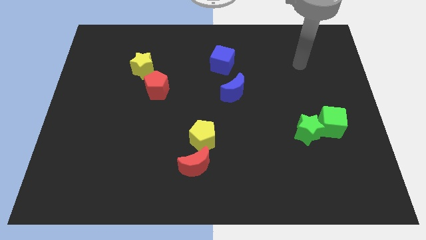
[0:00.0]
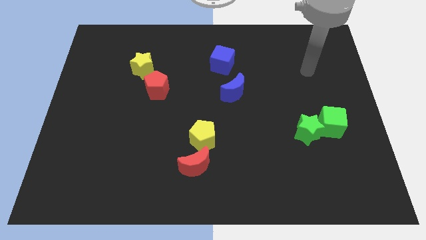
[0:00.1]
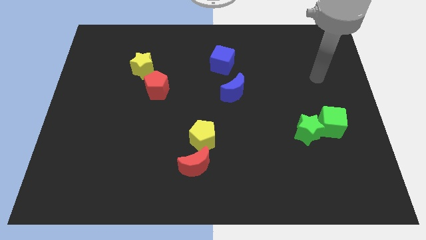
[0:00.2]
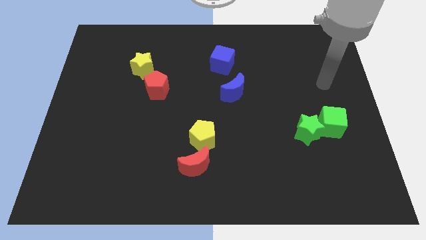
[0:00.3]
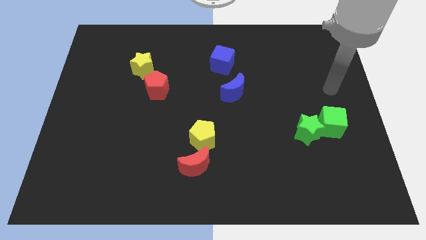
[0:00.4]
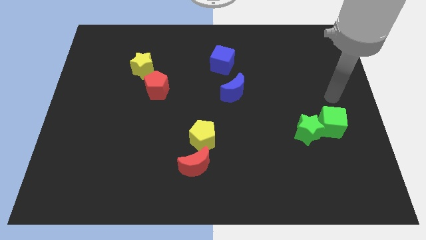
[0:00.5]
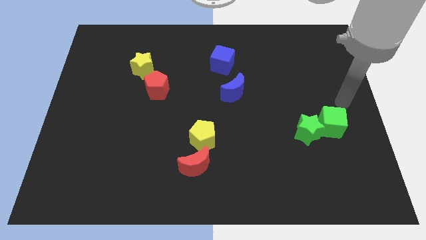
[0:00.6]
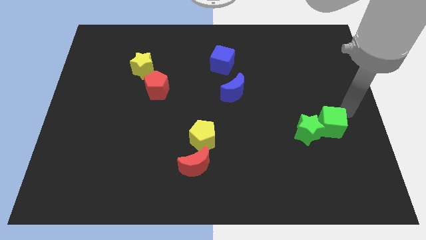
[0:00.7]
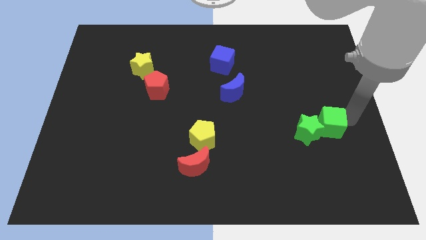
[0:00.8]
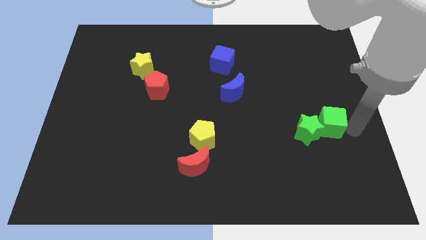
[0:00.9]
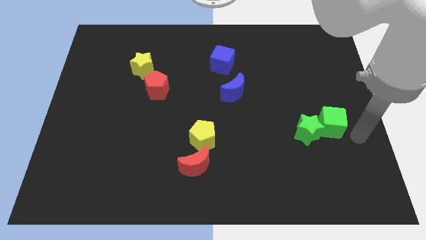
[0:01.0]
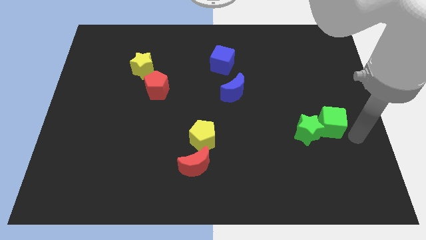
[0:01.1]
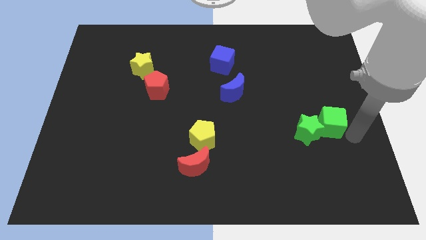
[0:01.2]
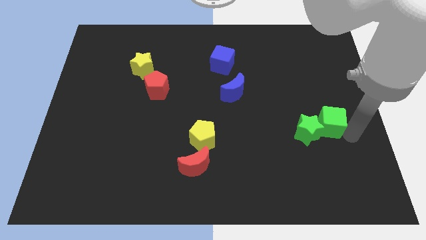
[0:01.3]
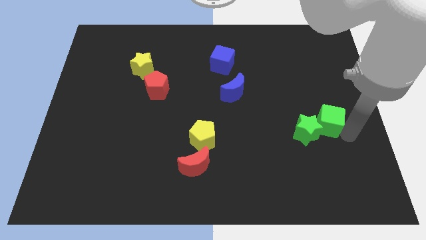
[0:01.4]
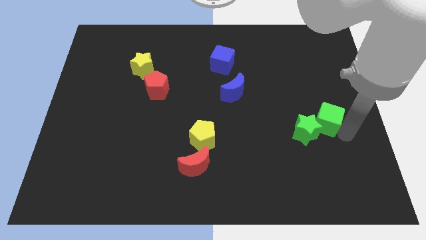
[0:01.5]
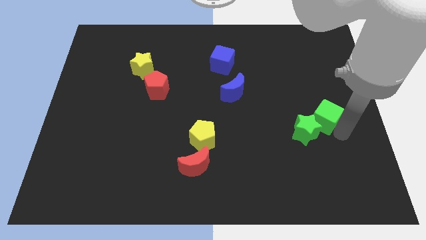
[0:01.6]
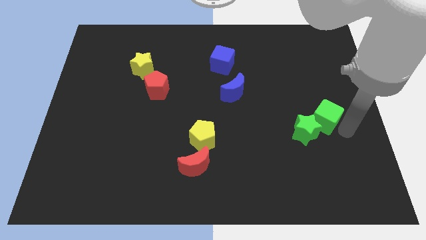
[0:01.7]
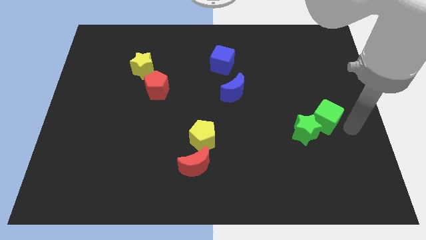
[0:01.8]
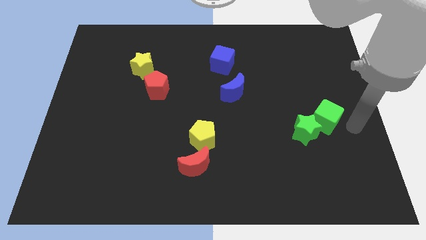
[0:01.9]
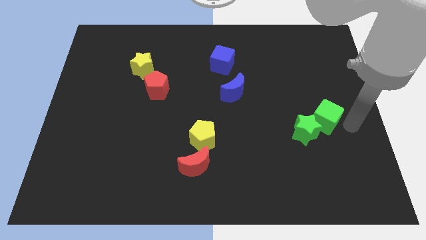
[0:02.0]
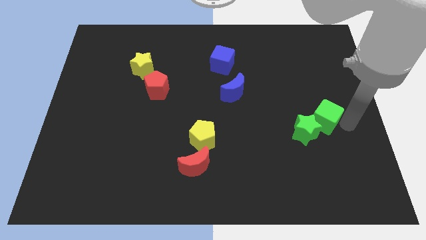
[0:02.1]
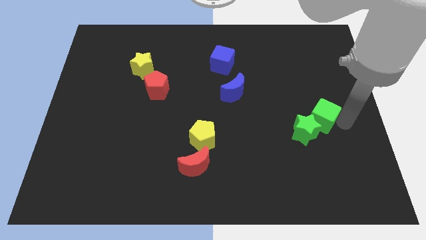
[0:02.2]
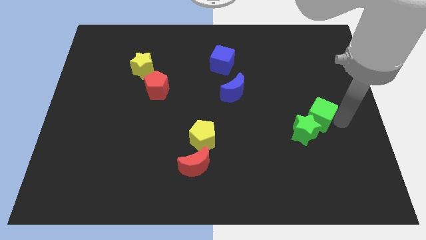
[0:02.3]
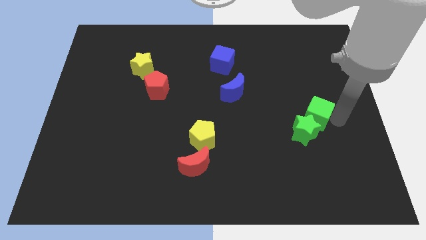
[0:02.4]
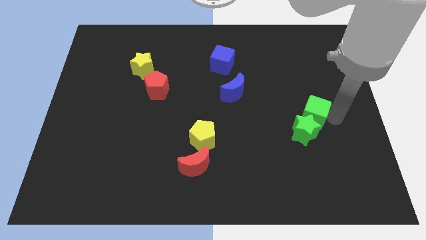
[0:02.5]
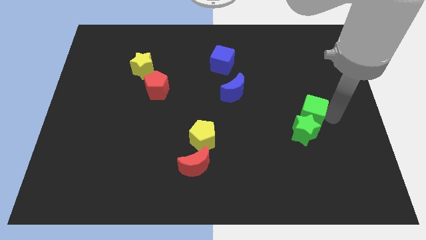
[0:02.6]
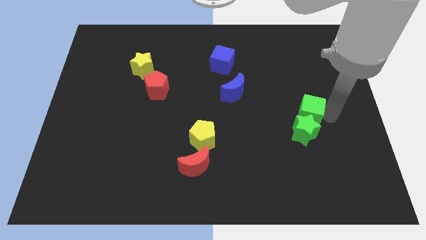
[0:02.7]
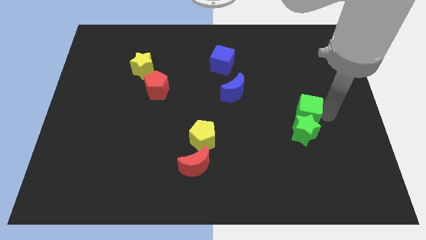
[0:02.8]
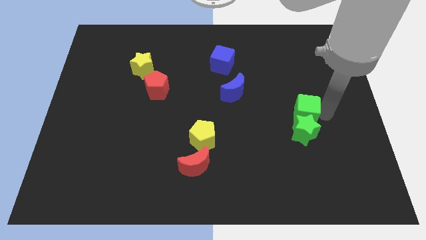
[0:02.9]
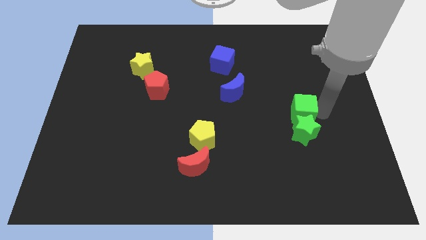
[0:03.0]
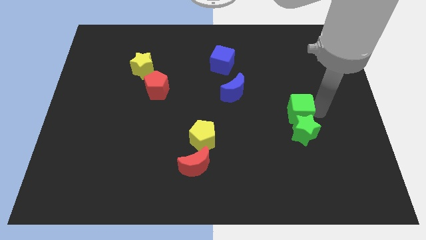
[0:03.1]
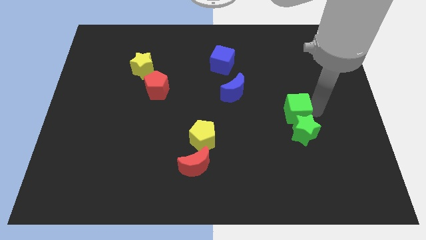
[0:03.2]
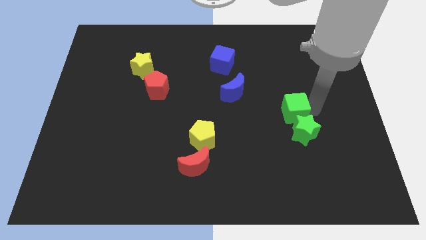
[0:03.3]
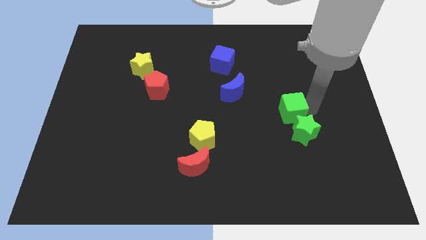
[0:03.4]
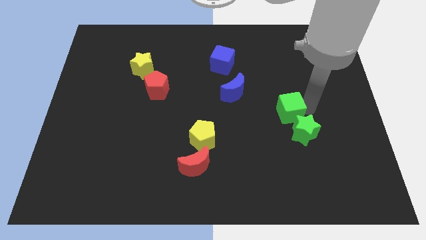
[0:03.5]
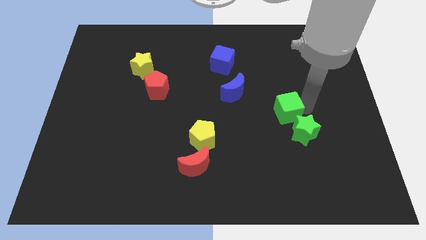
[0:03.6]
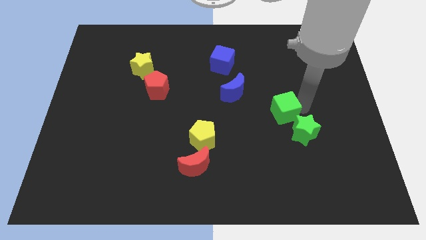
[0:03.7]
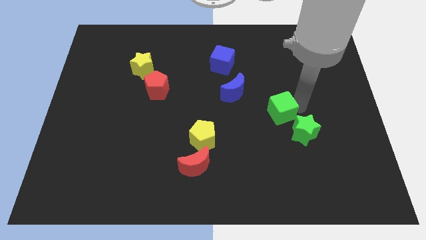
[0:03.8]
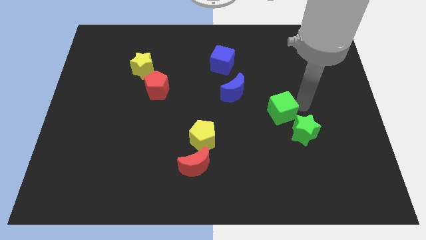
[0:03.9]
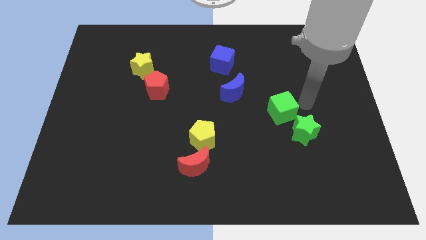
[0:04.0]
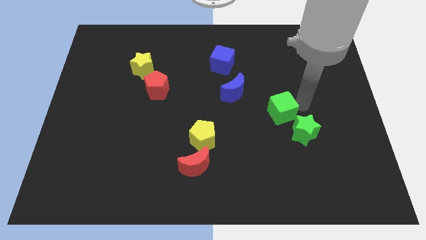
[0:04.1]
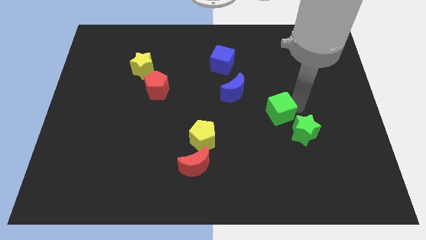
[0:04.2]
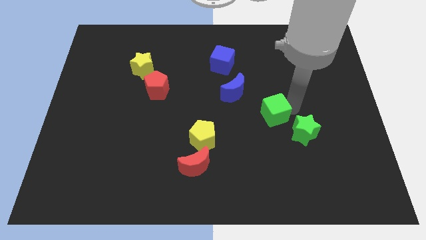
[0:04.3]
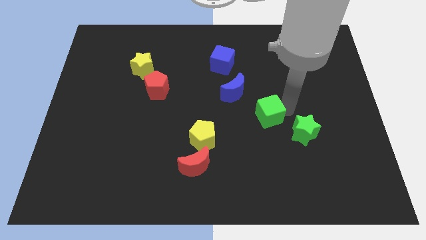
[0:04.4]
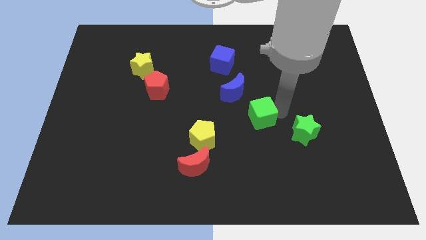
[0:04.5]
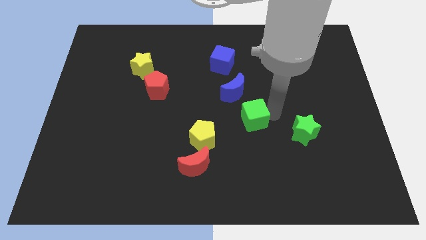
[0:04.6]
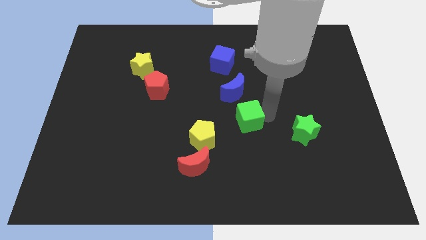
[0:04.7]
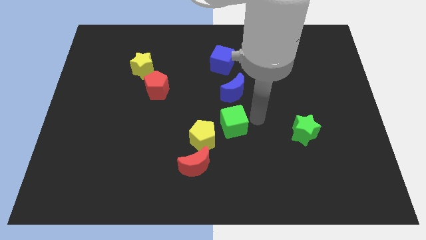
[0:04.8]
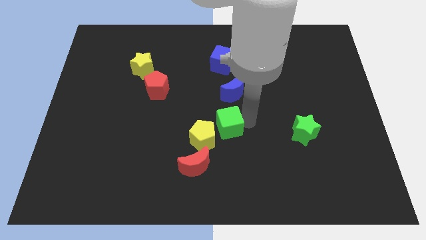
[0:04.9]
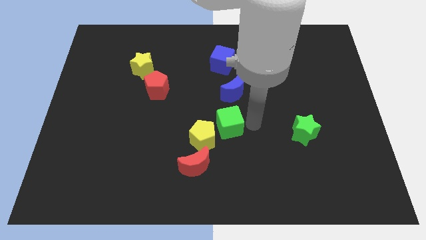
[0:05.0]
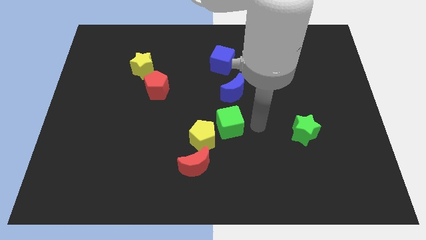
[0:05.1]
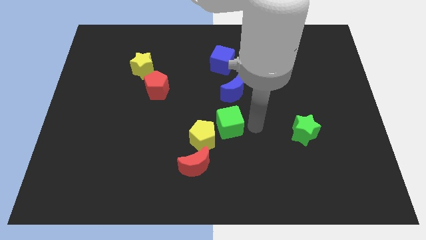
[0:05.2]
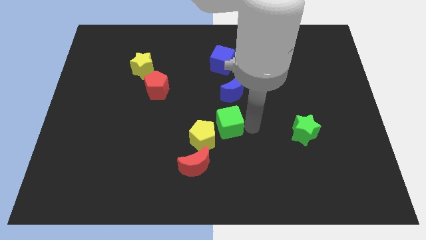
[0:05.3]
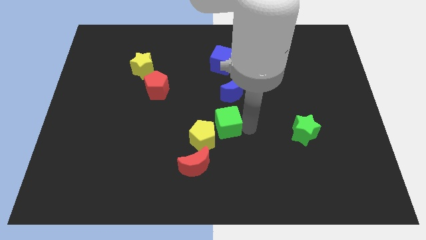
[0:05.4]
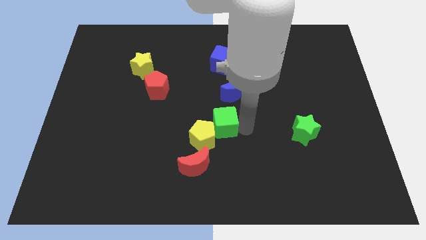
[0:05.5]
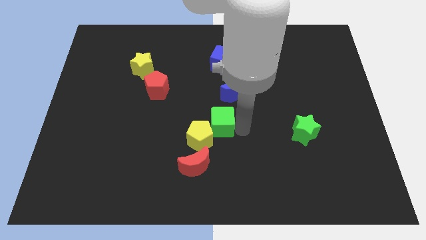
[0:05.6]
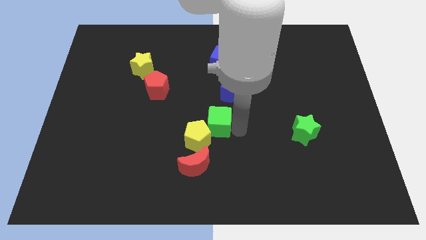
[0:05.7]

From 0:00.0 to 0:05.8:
push the green cube above the red moon

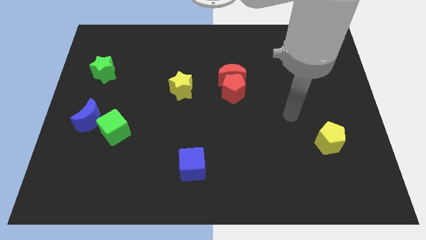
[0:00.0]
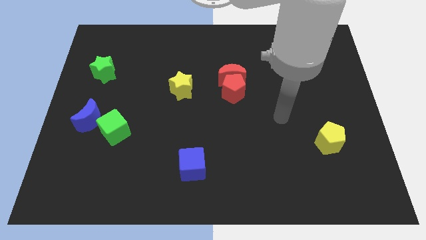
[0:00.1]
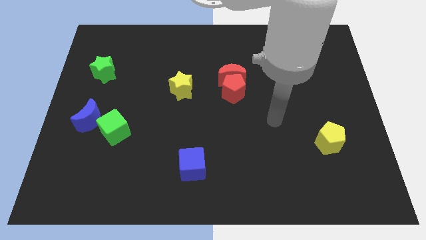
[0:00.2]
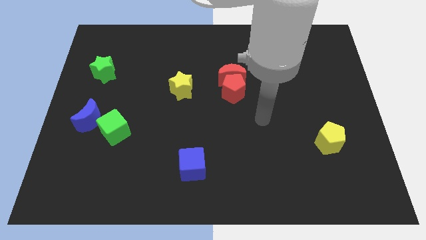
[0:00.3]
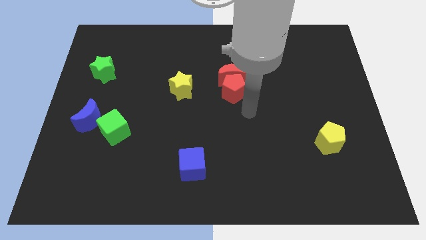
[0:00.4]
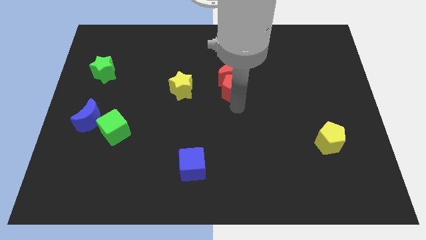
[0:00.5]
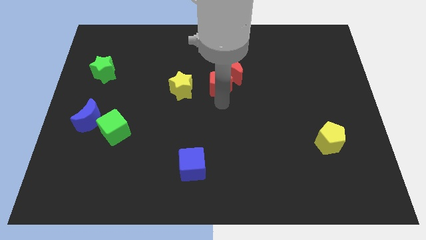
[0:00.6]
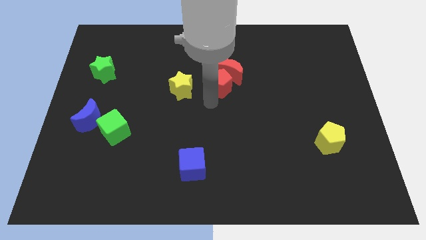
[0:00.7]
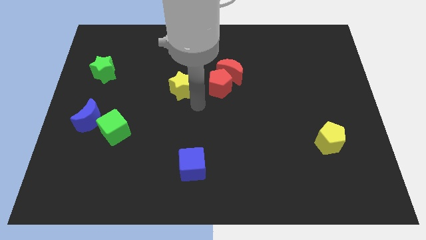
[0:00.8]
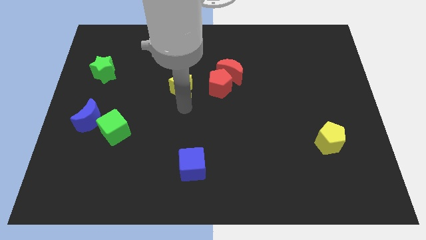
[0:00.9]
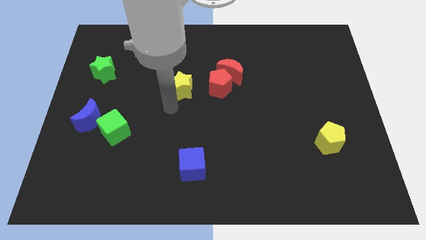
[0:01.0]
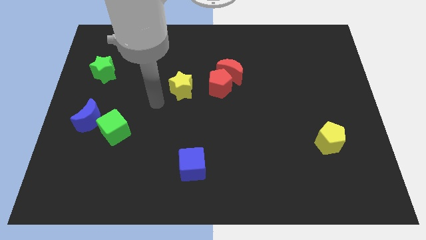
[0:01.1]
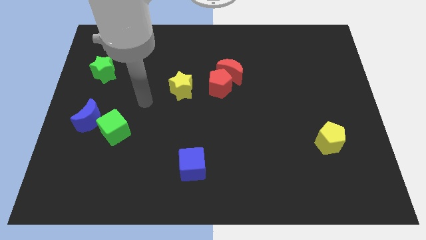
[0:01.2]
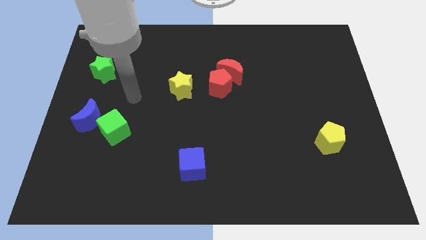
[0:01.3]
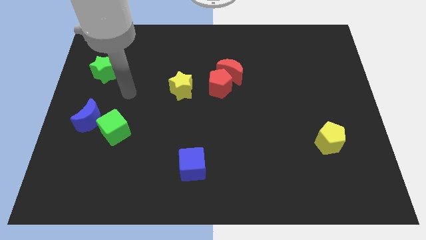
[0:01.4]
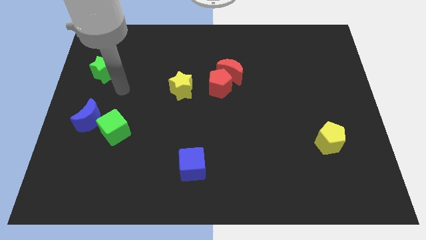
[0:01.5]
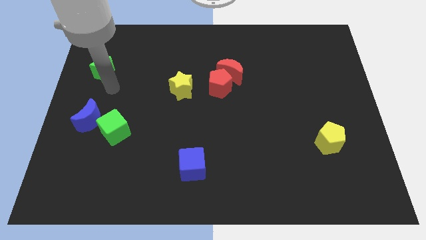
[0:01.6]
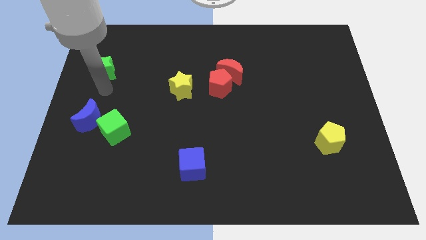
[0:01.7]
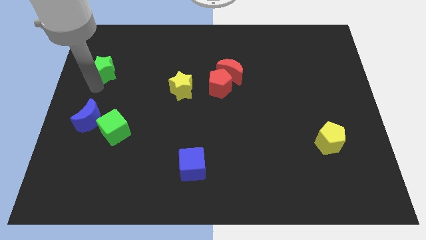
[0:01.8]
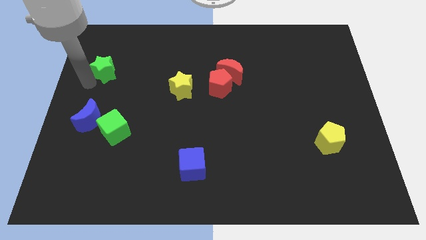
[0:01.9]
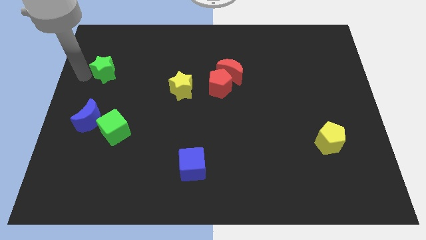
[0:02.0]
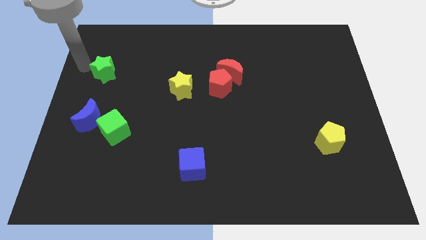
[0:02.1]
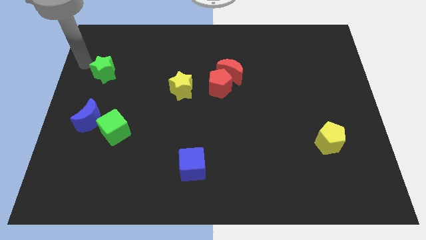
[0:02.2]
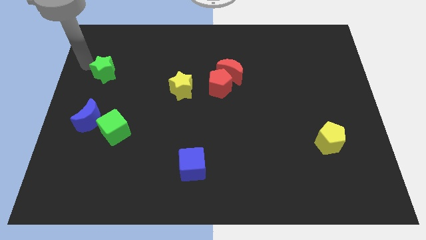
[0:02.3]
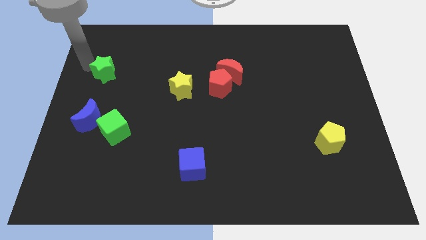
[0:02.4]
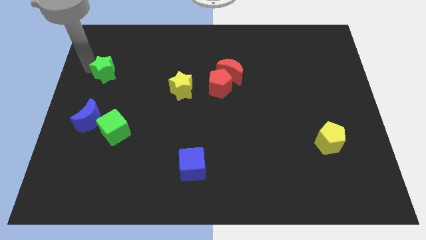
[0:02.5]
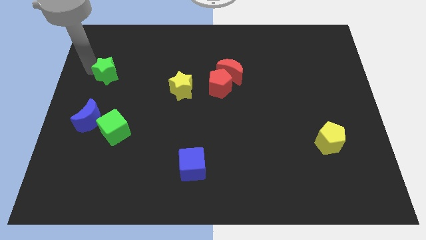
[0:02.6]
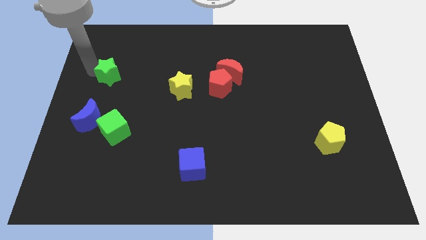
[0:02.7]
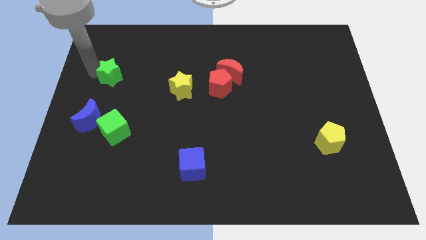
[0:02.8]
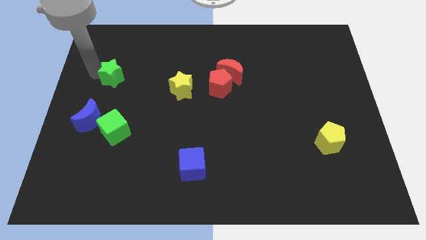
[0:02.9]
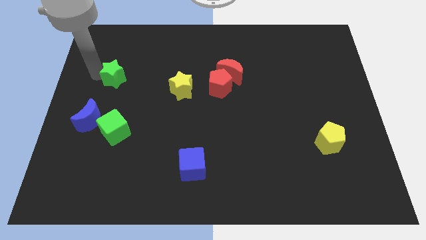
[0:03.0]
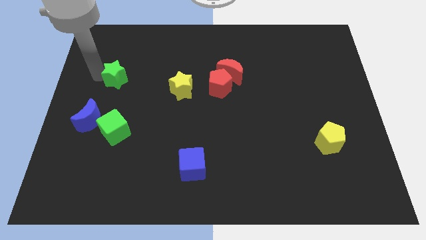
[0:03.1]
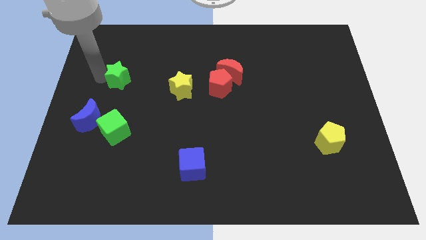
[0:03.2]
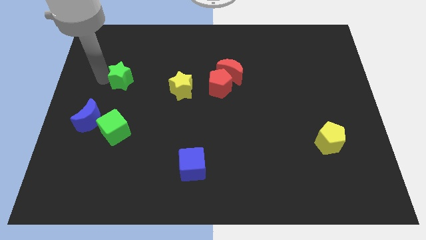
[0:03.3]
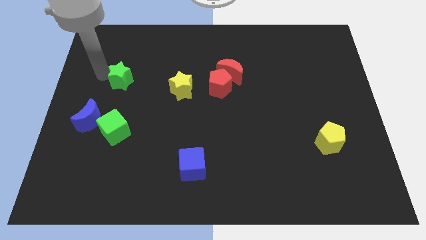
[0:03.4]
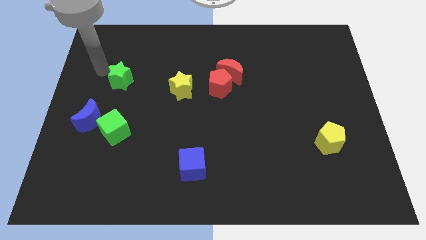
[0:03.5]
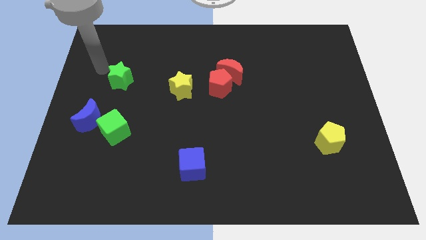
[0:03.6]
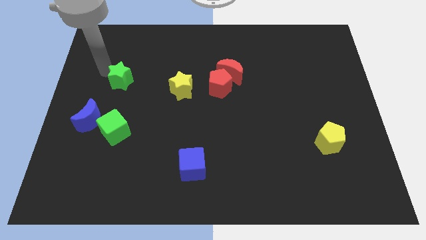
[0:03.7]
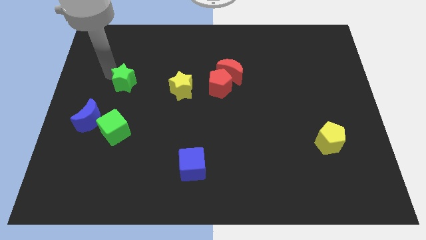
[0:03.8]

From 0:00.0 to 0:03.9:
slide the green star just left of the yellow star
